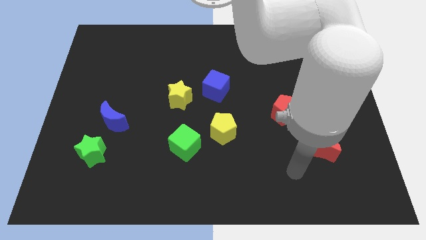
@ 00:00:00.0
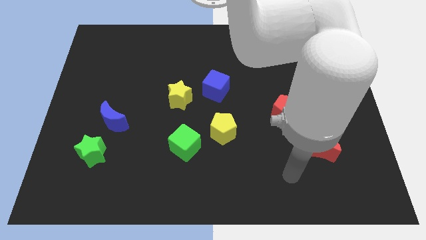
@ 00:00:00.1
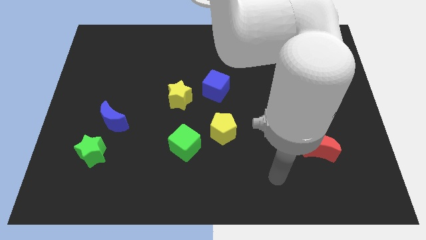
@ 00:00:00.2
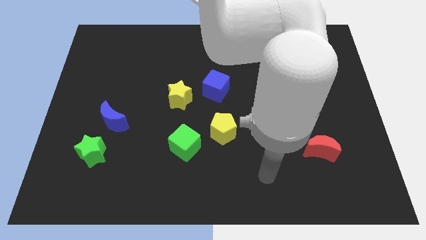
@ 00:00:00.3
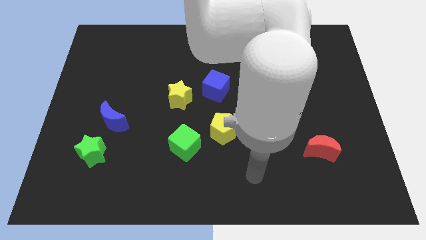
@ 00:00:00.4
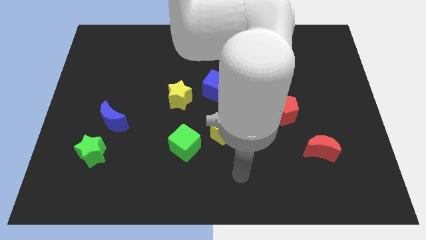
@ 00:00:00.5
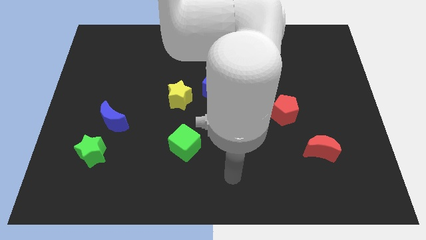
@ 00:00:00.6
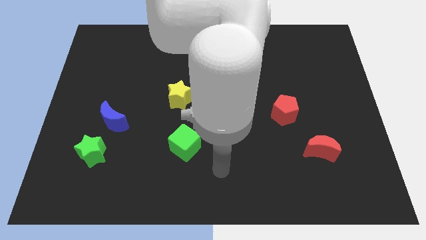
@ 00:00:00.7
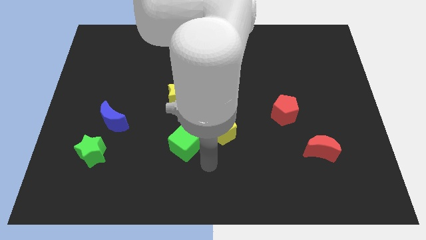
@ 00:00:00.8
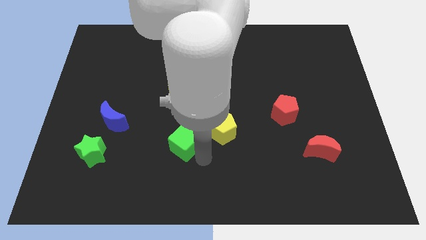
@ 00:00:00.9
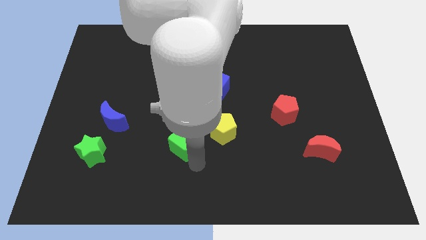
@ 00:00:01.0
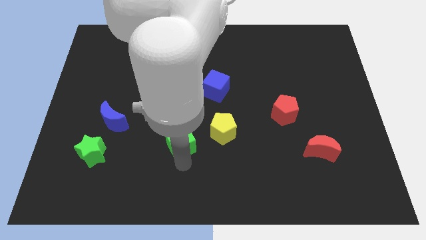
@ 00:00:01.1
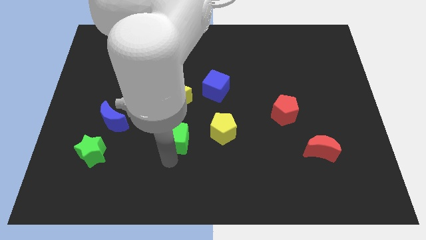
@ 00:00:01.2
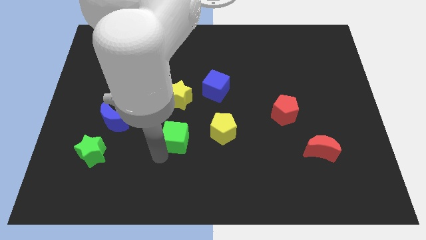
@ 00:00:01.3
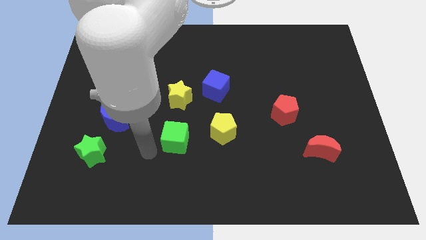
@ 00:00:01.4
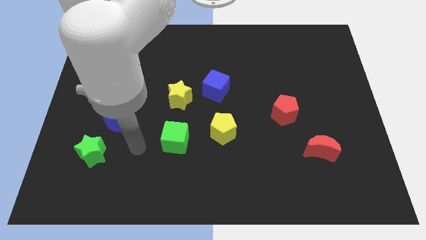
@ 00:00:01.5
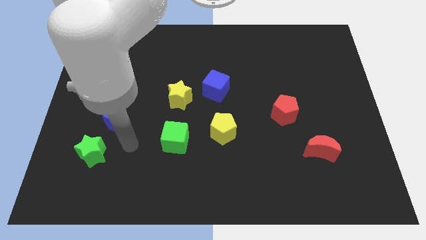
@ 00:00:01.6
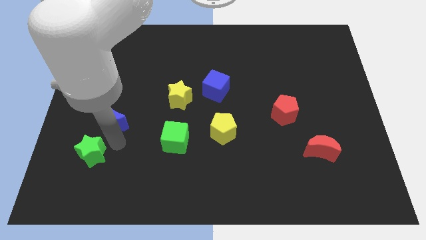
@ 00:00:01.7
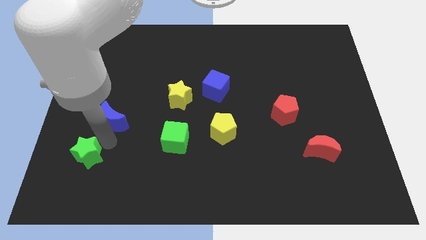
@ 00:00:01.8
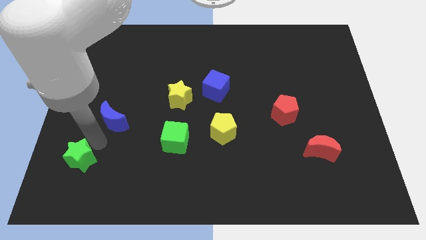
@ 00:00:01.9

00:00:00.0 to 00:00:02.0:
pull the blue moon apart from the green star

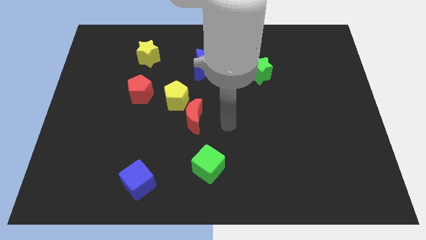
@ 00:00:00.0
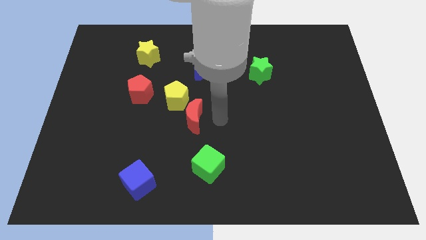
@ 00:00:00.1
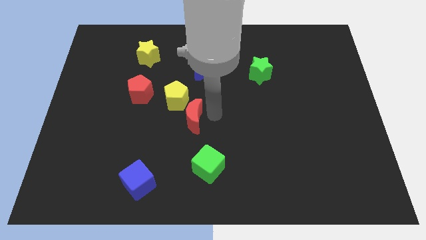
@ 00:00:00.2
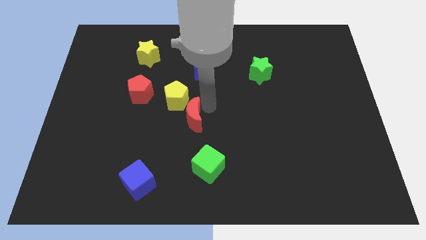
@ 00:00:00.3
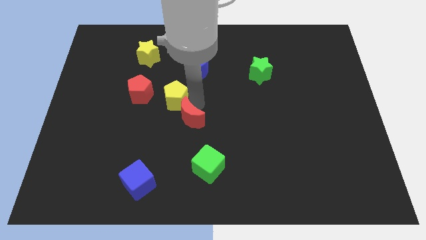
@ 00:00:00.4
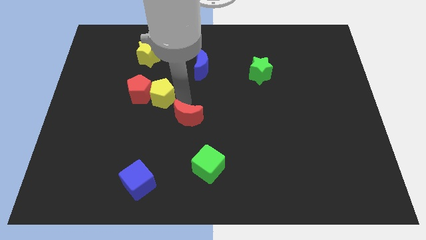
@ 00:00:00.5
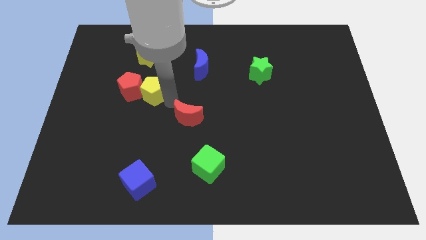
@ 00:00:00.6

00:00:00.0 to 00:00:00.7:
separate the red moon from the yellow pentagon

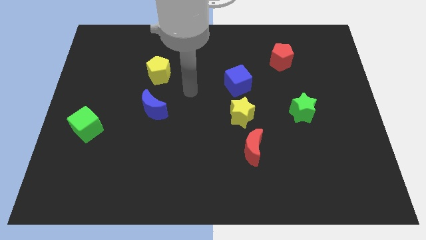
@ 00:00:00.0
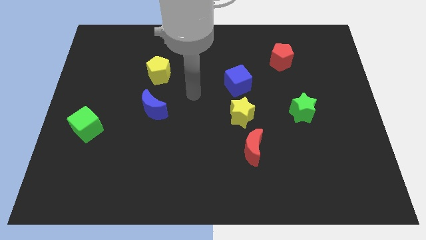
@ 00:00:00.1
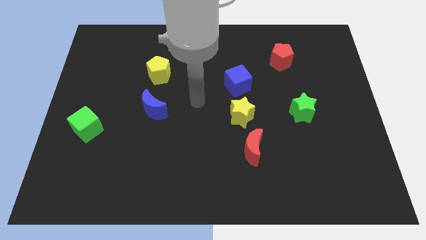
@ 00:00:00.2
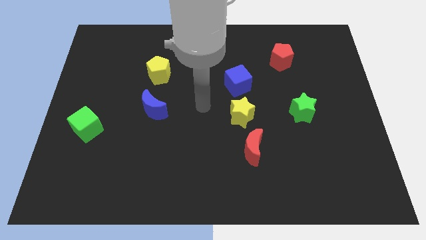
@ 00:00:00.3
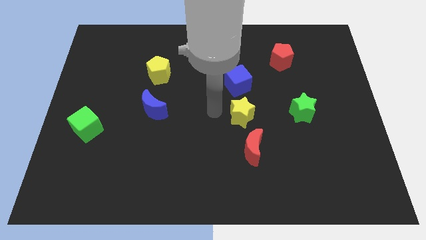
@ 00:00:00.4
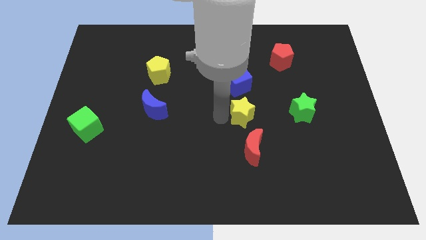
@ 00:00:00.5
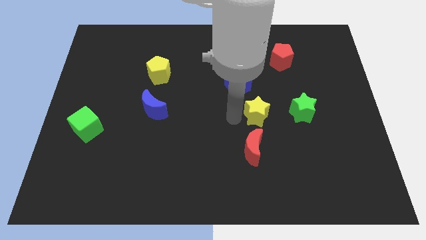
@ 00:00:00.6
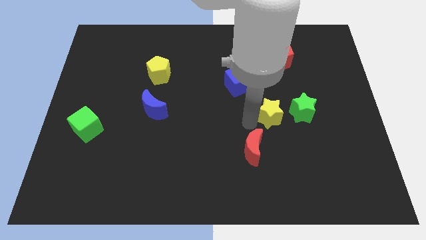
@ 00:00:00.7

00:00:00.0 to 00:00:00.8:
pull the red moon apart from the yellow star

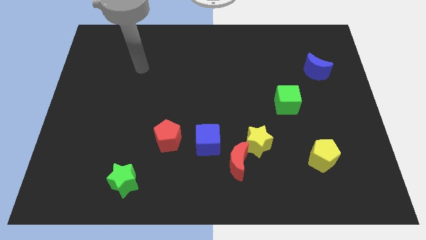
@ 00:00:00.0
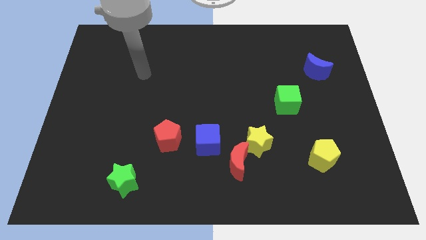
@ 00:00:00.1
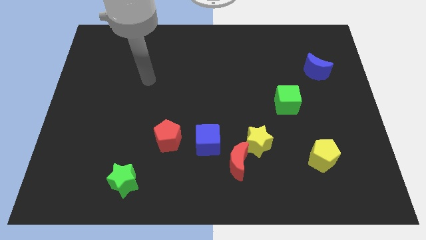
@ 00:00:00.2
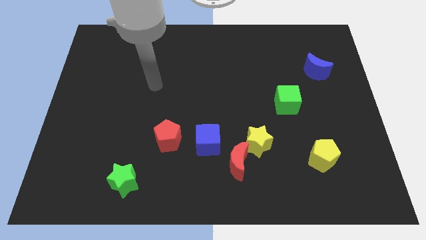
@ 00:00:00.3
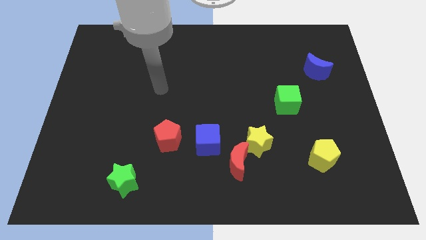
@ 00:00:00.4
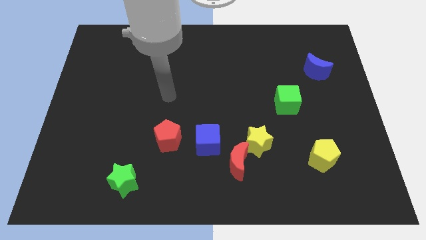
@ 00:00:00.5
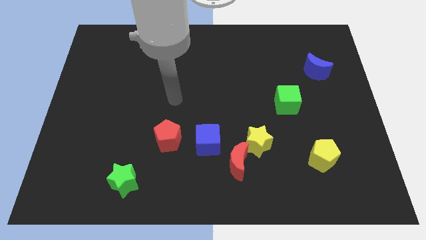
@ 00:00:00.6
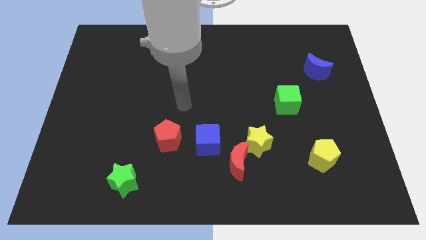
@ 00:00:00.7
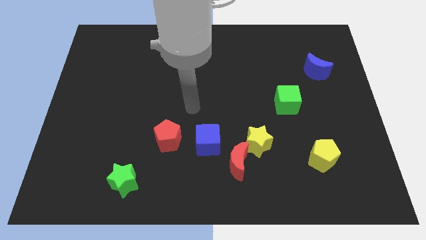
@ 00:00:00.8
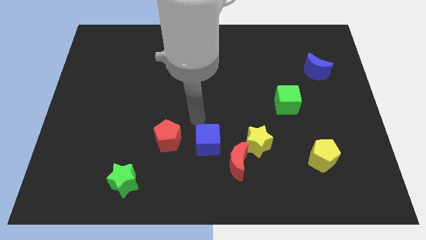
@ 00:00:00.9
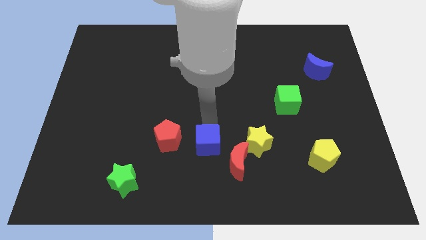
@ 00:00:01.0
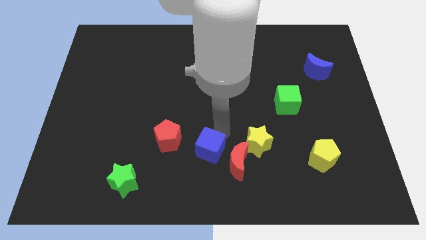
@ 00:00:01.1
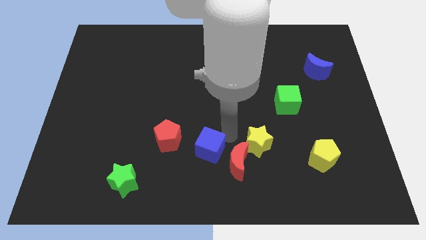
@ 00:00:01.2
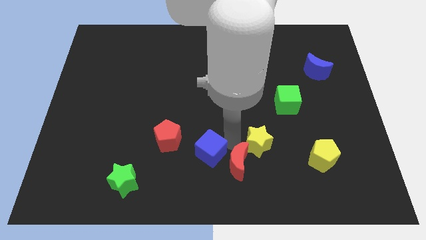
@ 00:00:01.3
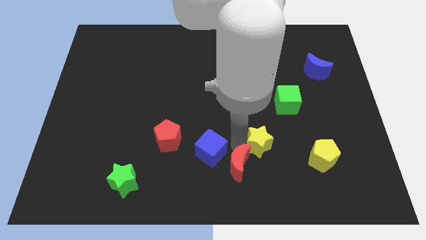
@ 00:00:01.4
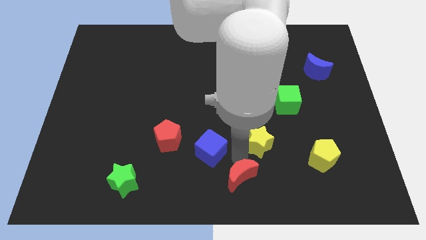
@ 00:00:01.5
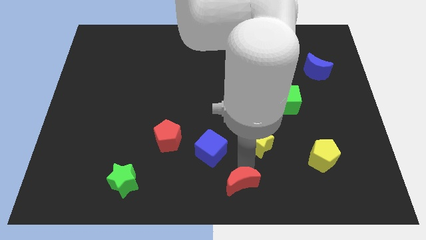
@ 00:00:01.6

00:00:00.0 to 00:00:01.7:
separate the yellow star from the red moon

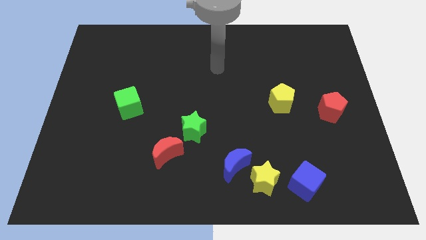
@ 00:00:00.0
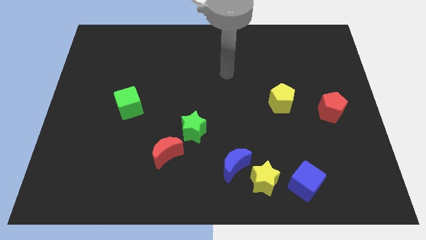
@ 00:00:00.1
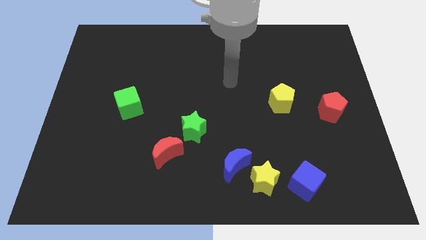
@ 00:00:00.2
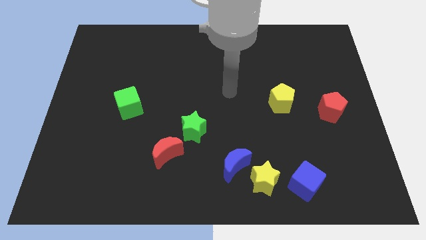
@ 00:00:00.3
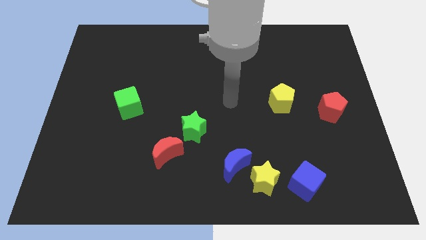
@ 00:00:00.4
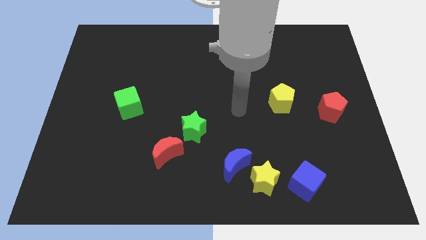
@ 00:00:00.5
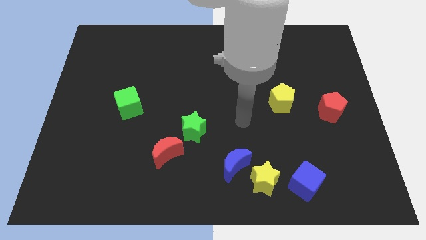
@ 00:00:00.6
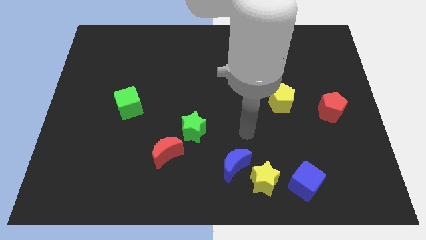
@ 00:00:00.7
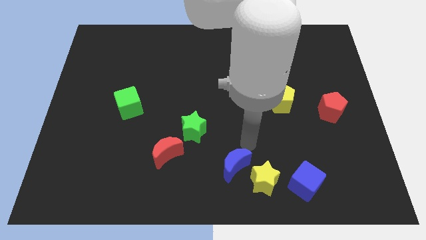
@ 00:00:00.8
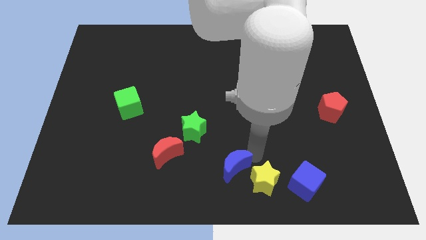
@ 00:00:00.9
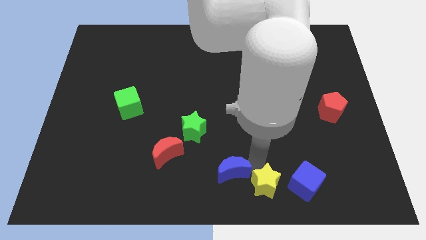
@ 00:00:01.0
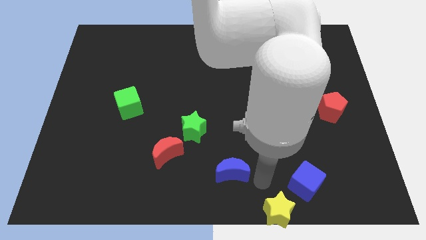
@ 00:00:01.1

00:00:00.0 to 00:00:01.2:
separate the blue moon from the yellow star

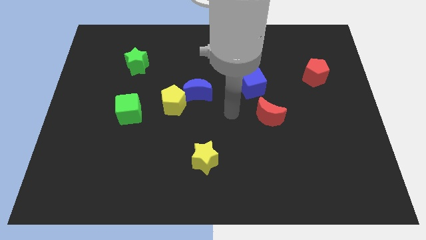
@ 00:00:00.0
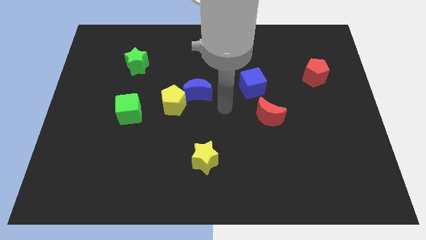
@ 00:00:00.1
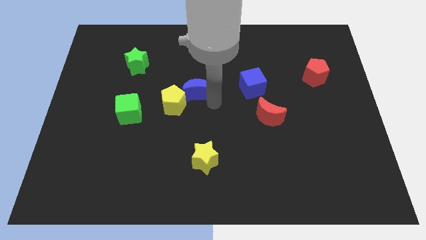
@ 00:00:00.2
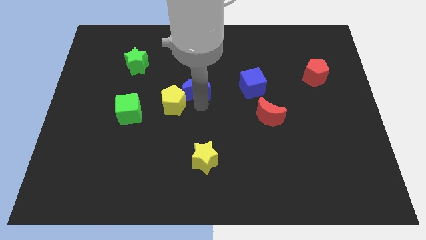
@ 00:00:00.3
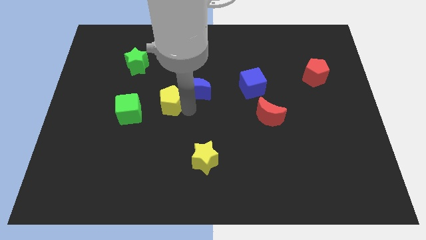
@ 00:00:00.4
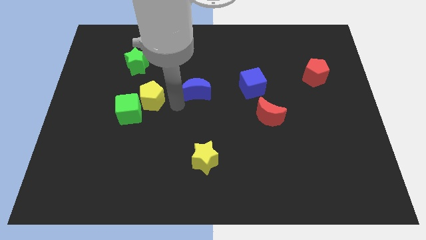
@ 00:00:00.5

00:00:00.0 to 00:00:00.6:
separate the blue moon from the yellow pentagon

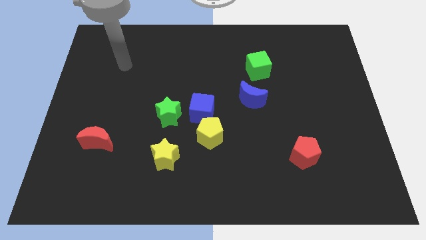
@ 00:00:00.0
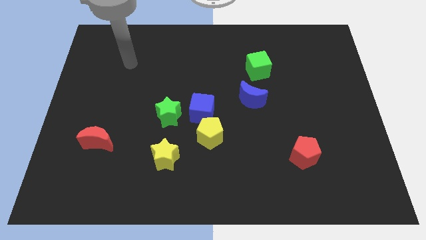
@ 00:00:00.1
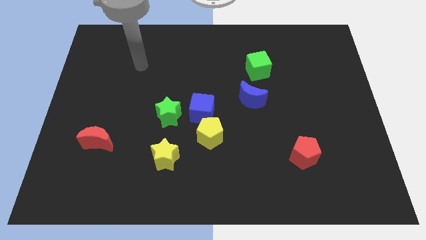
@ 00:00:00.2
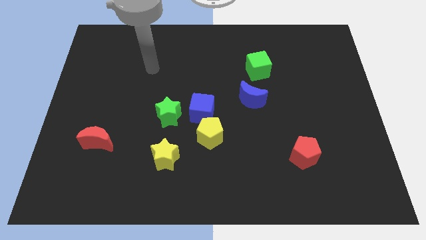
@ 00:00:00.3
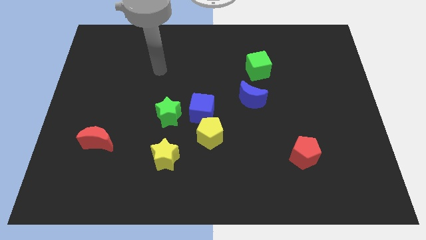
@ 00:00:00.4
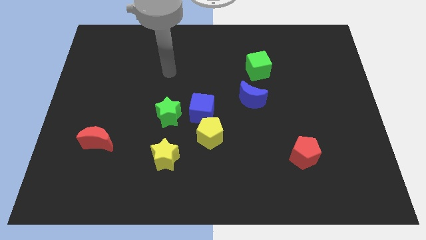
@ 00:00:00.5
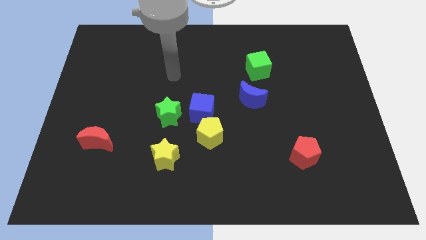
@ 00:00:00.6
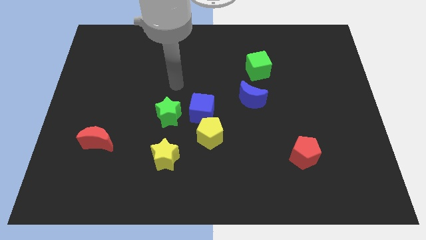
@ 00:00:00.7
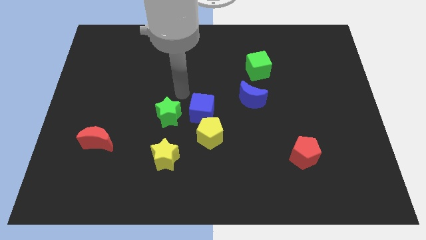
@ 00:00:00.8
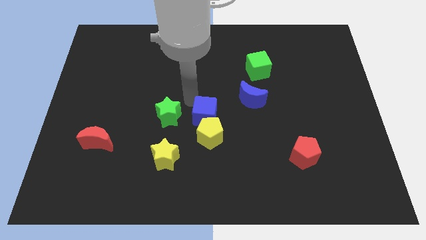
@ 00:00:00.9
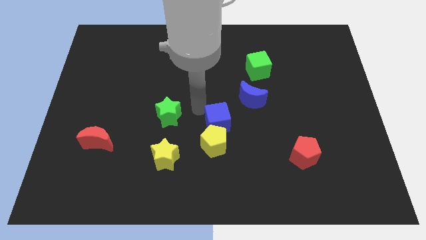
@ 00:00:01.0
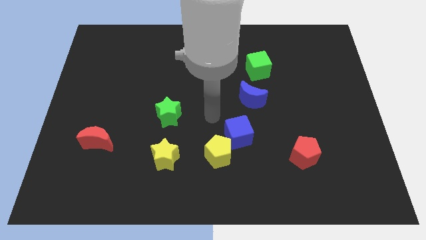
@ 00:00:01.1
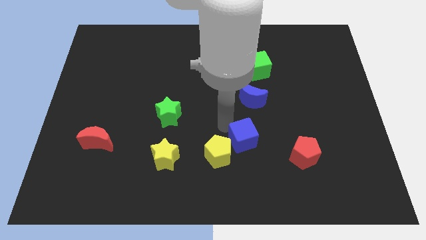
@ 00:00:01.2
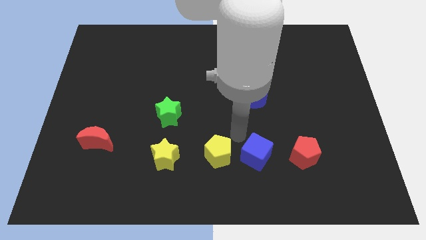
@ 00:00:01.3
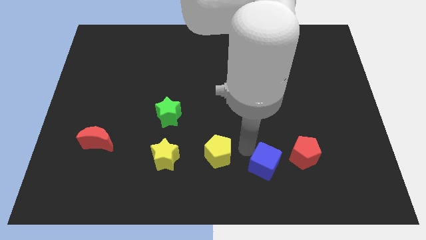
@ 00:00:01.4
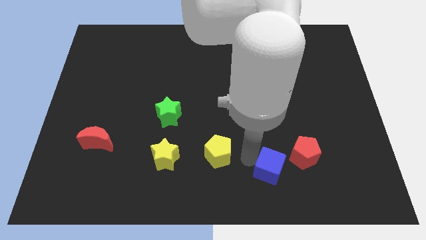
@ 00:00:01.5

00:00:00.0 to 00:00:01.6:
move the yellow pentagon away from the blue cube

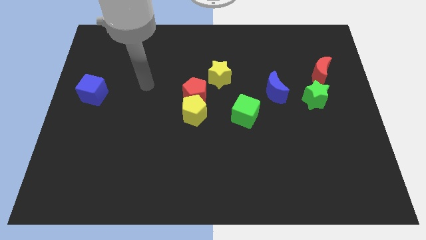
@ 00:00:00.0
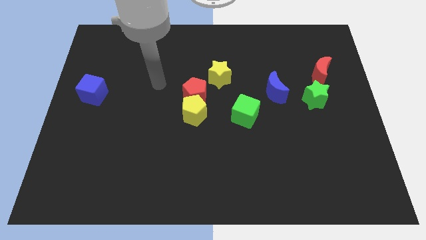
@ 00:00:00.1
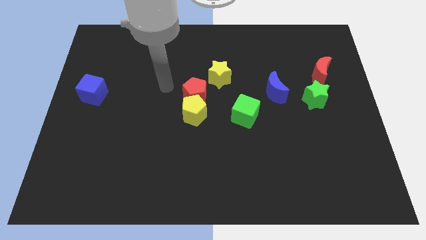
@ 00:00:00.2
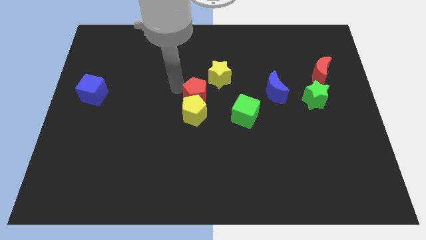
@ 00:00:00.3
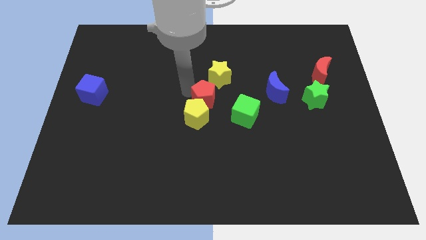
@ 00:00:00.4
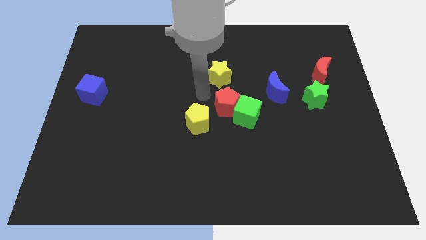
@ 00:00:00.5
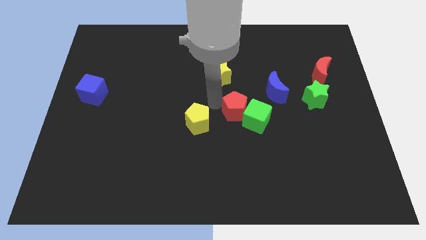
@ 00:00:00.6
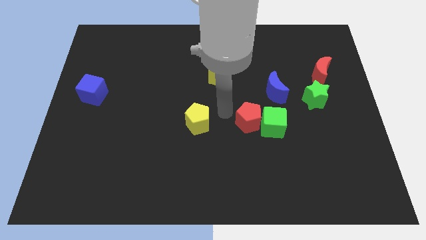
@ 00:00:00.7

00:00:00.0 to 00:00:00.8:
pull the yellow pentagon apart from the red pentagon
